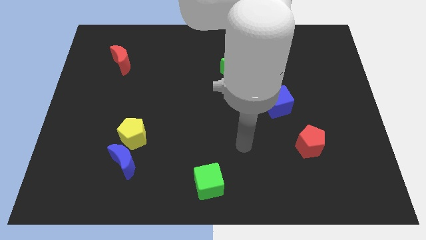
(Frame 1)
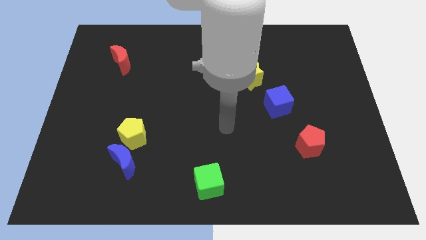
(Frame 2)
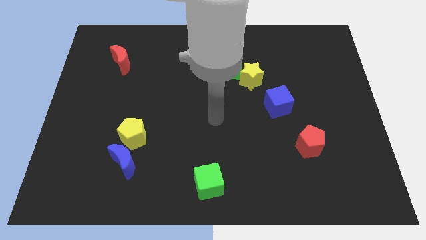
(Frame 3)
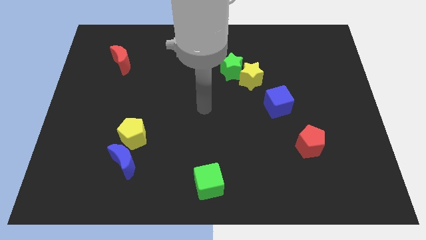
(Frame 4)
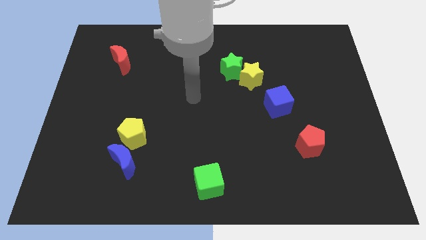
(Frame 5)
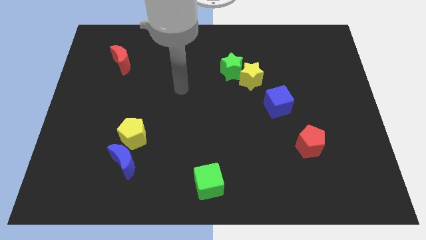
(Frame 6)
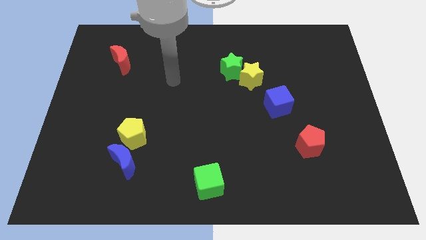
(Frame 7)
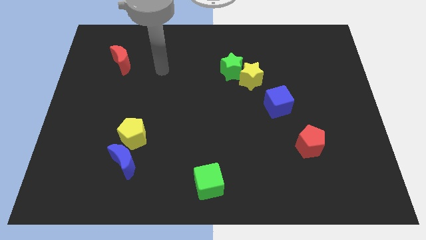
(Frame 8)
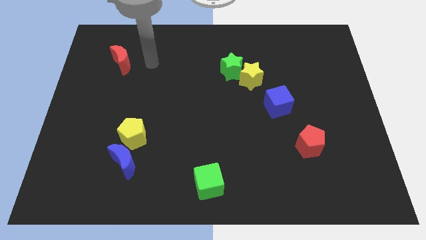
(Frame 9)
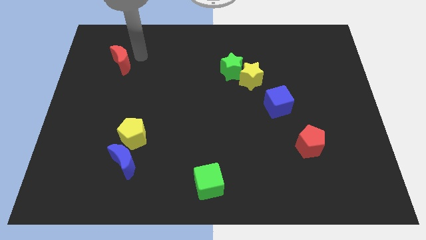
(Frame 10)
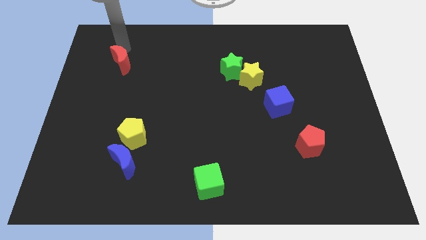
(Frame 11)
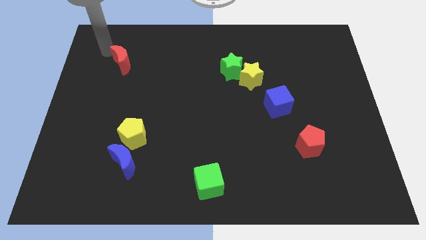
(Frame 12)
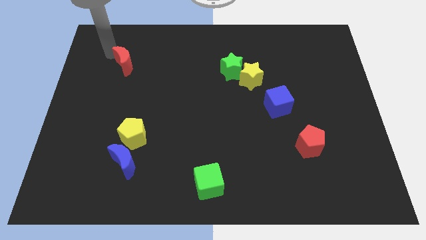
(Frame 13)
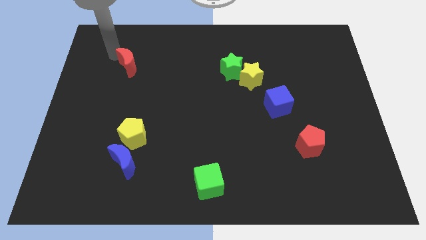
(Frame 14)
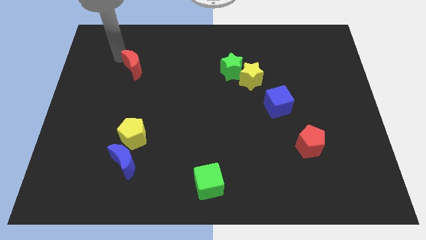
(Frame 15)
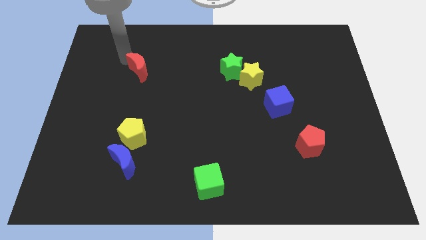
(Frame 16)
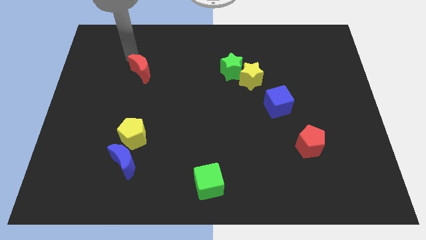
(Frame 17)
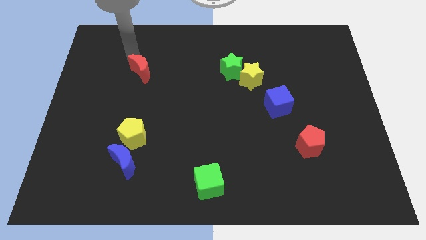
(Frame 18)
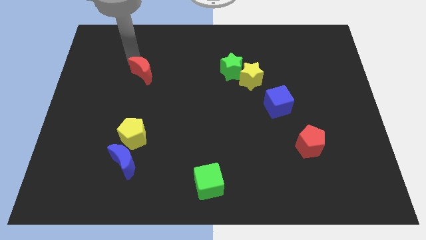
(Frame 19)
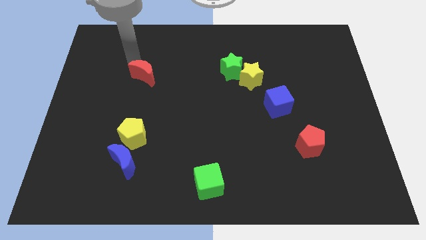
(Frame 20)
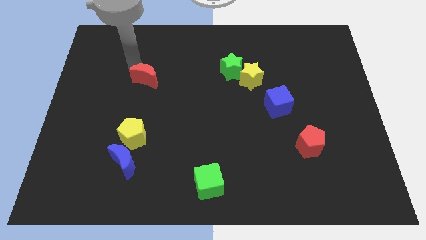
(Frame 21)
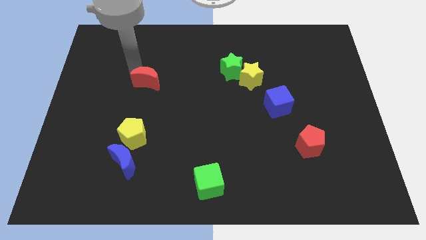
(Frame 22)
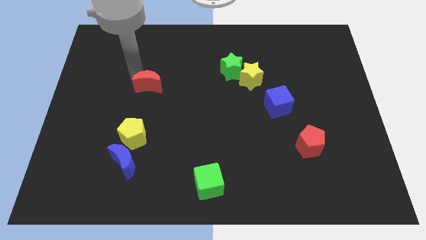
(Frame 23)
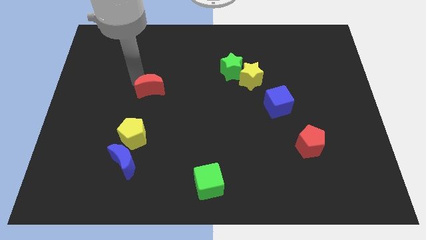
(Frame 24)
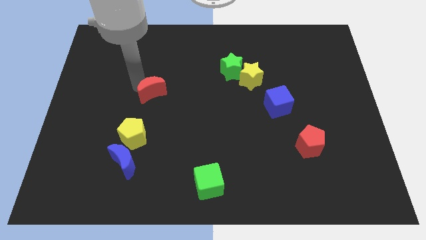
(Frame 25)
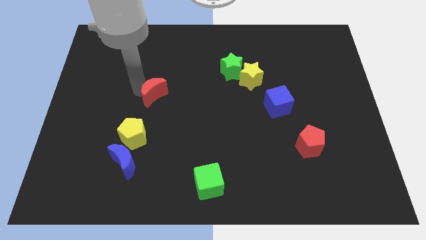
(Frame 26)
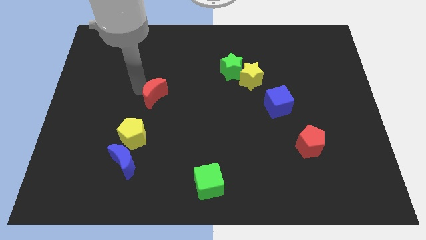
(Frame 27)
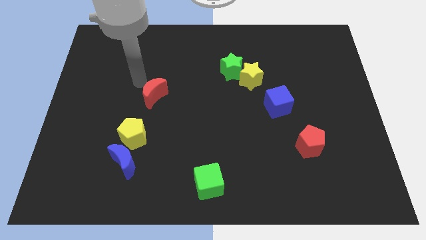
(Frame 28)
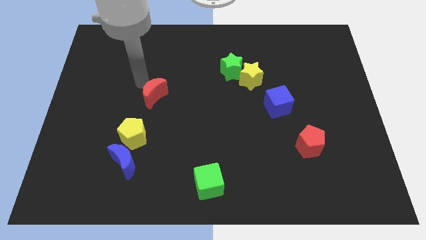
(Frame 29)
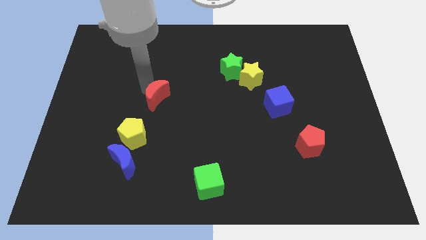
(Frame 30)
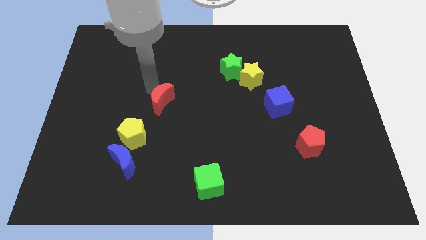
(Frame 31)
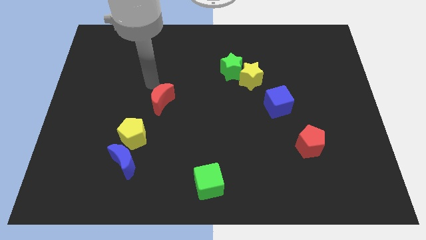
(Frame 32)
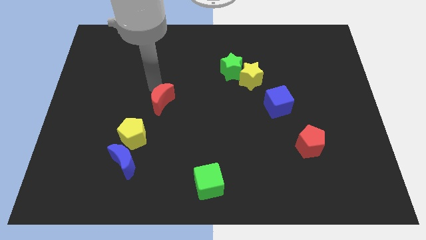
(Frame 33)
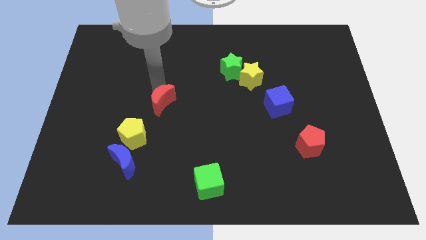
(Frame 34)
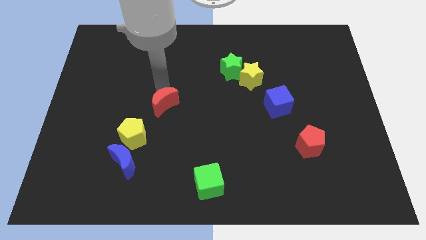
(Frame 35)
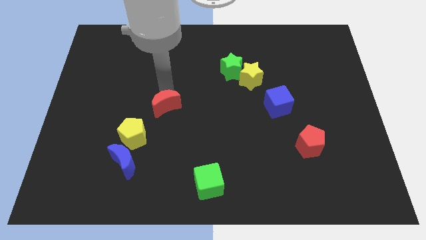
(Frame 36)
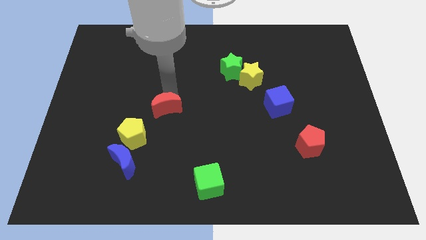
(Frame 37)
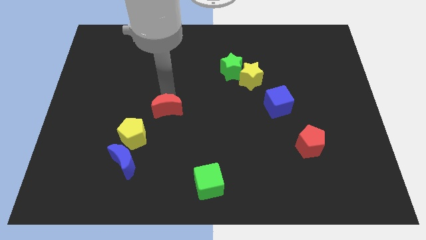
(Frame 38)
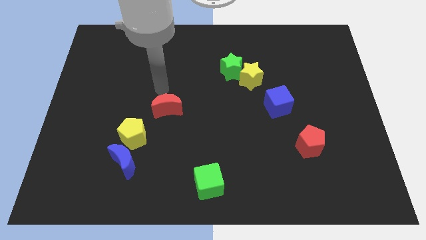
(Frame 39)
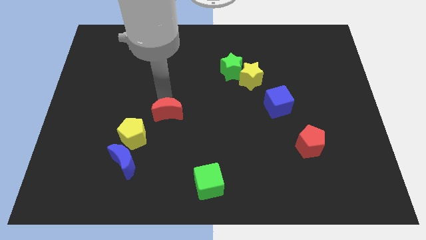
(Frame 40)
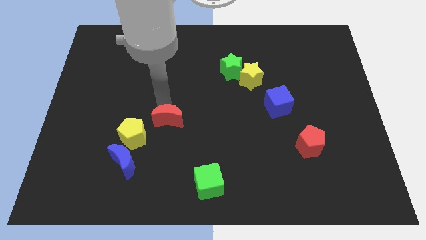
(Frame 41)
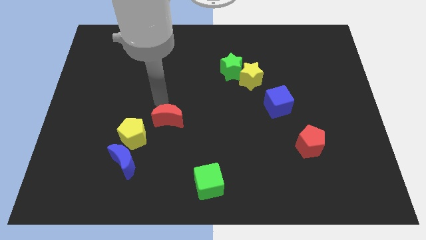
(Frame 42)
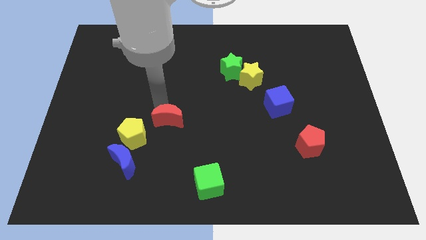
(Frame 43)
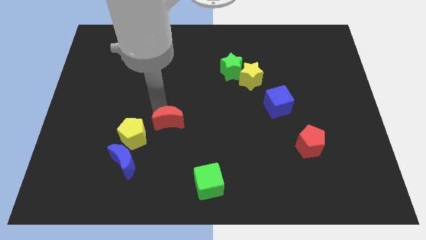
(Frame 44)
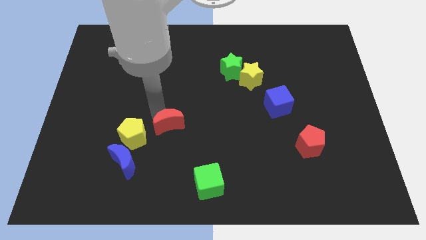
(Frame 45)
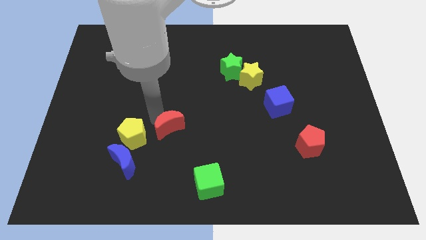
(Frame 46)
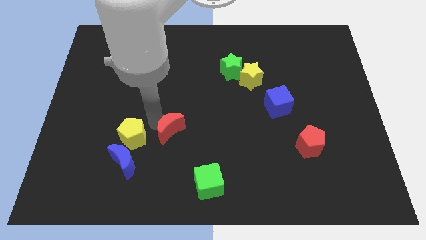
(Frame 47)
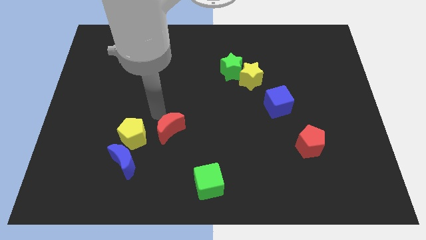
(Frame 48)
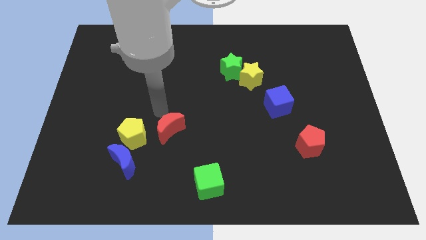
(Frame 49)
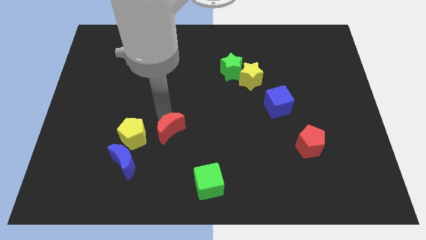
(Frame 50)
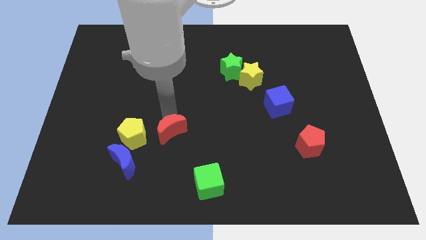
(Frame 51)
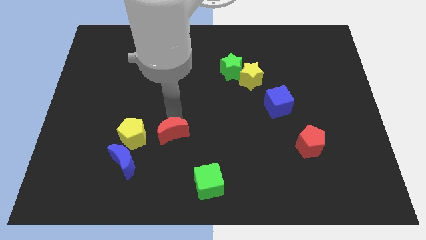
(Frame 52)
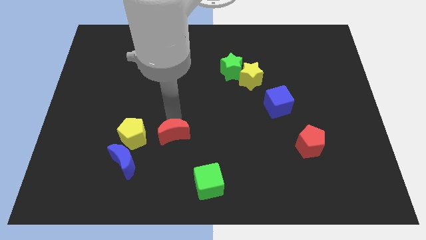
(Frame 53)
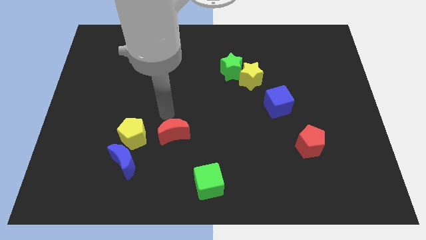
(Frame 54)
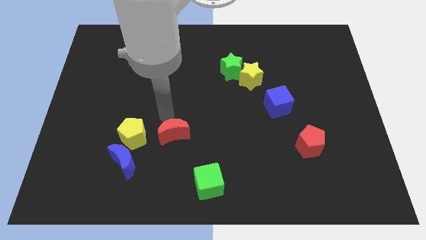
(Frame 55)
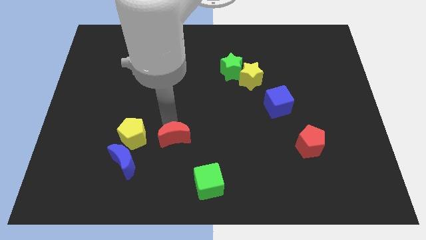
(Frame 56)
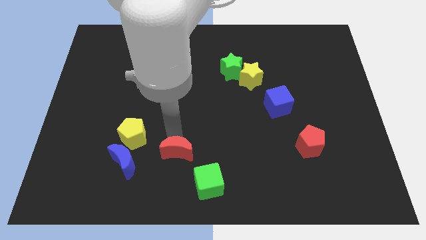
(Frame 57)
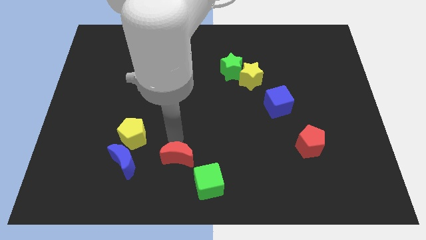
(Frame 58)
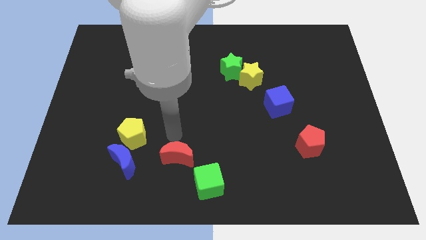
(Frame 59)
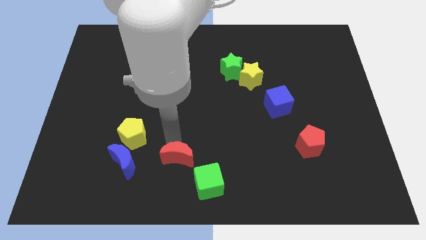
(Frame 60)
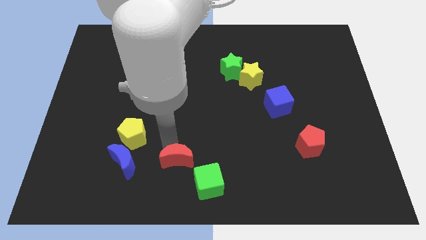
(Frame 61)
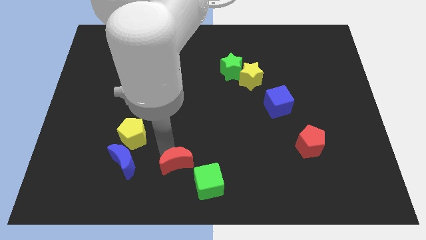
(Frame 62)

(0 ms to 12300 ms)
move the red moon to the bottom side
